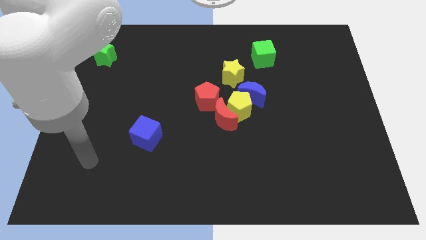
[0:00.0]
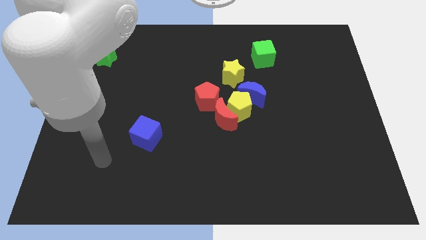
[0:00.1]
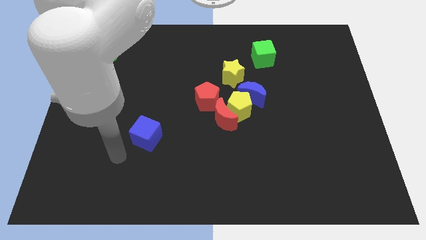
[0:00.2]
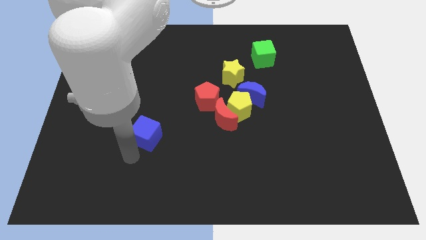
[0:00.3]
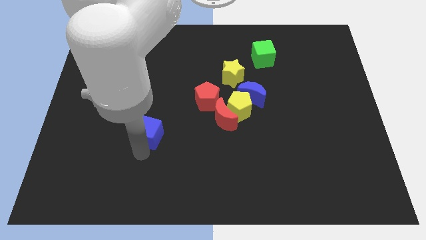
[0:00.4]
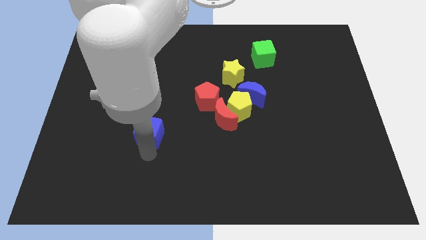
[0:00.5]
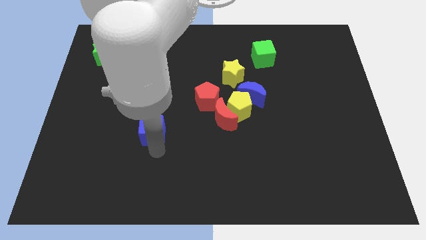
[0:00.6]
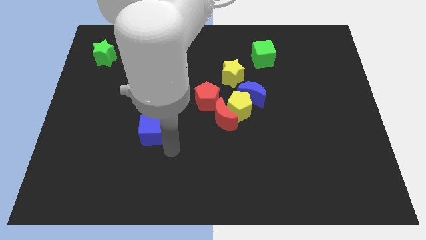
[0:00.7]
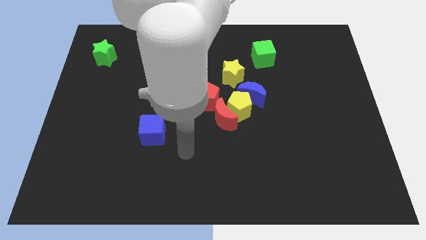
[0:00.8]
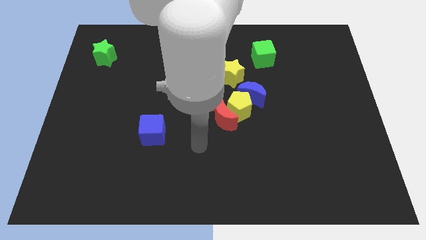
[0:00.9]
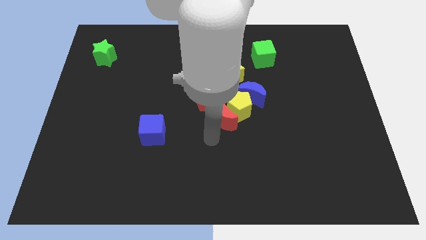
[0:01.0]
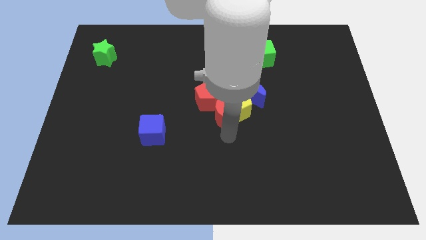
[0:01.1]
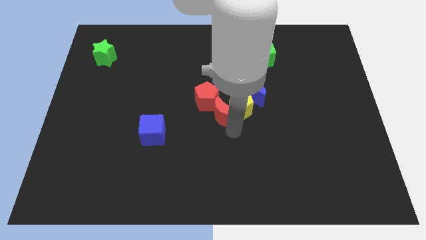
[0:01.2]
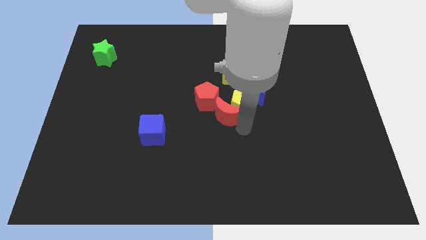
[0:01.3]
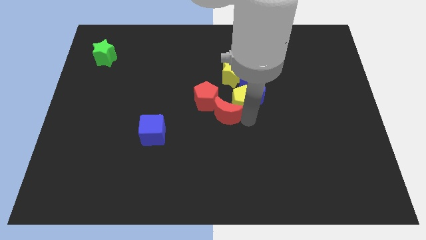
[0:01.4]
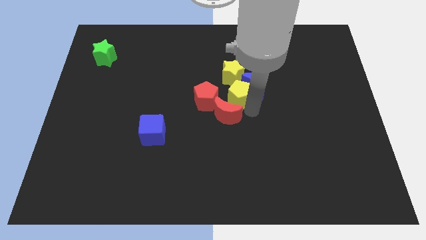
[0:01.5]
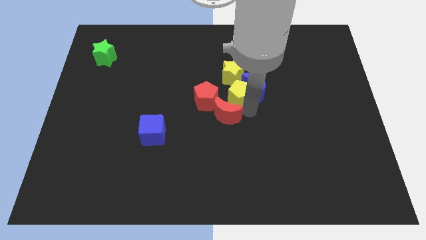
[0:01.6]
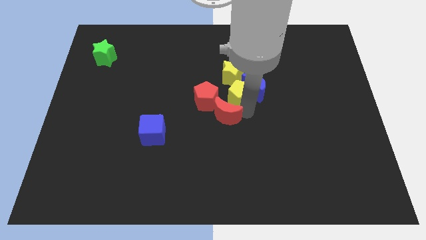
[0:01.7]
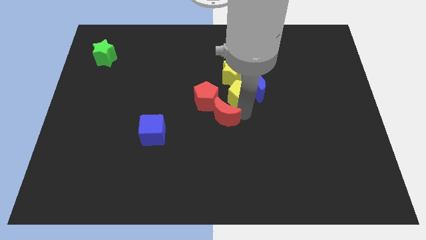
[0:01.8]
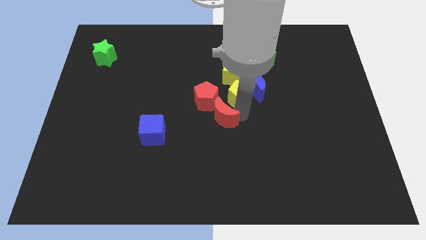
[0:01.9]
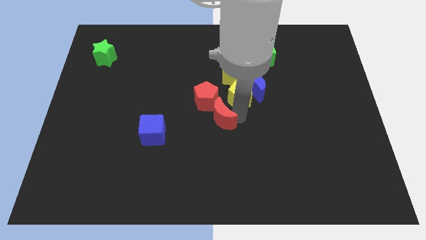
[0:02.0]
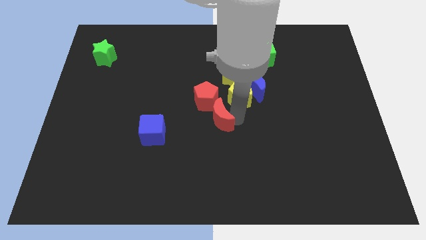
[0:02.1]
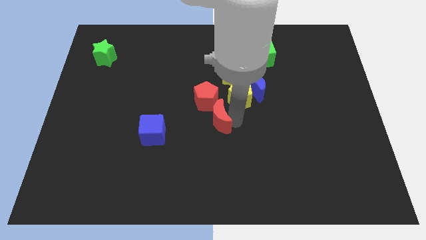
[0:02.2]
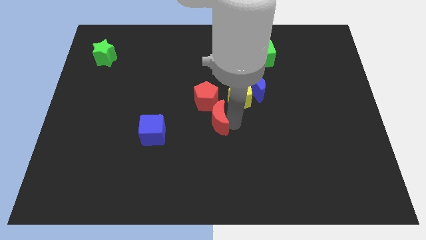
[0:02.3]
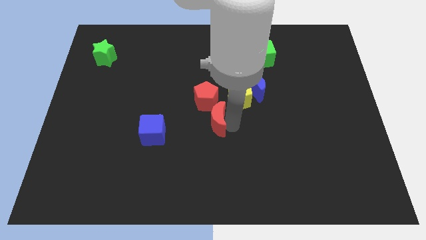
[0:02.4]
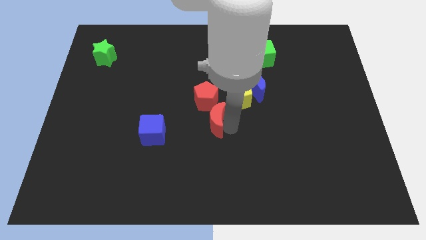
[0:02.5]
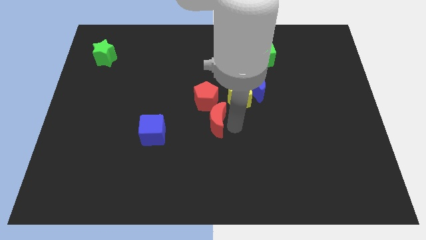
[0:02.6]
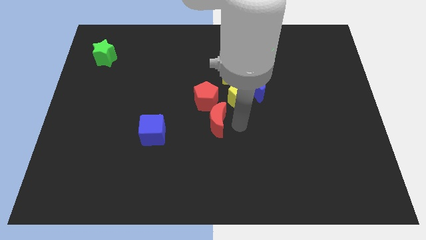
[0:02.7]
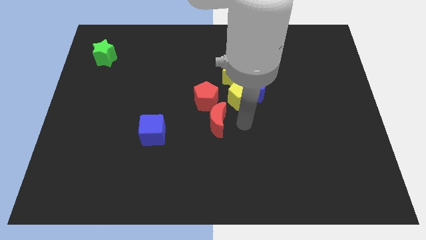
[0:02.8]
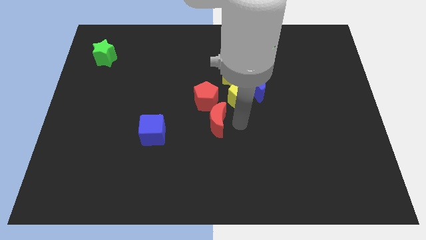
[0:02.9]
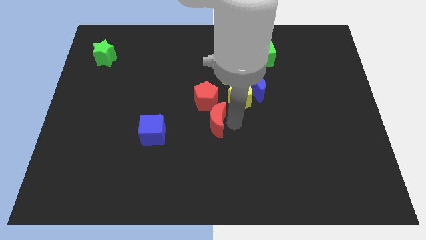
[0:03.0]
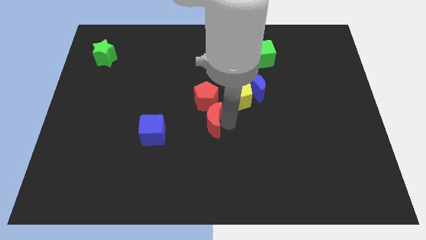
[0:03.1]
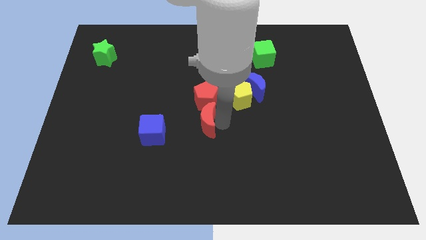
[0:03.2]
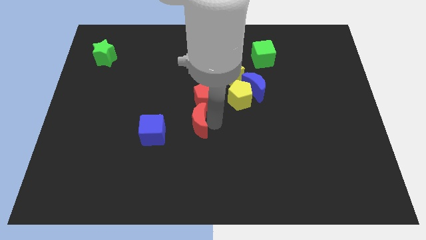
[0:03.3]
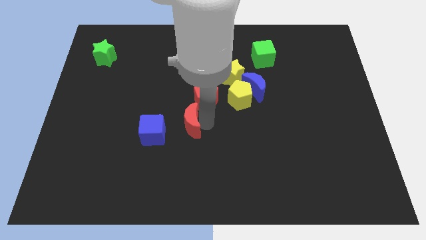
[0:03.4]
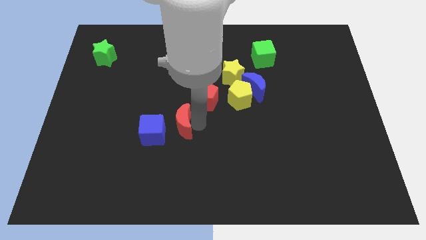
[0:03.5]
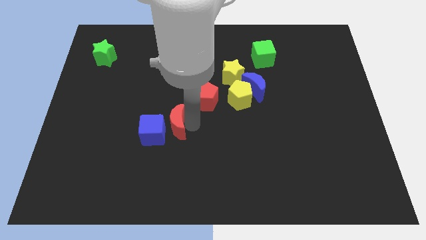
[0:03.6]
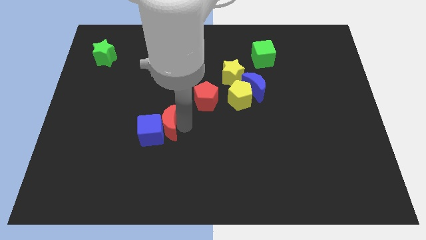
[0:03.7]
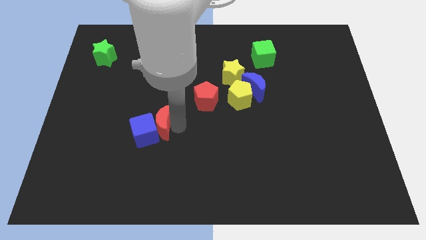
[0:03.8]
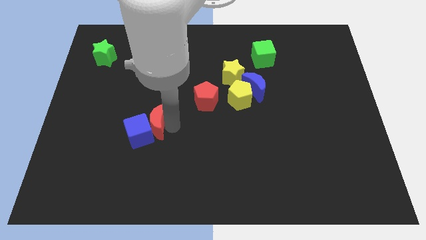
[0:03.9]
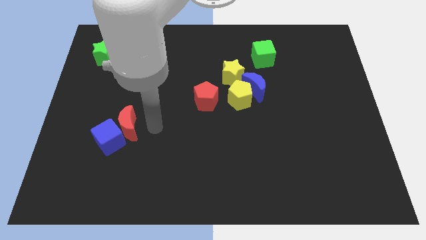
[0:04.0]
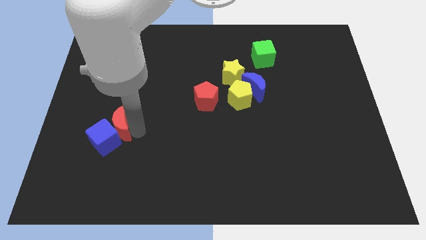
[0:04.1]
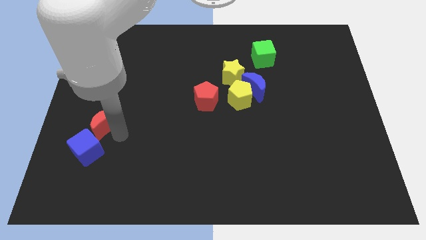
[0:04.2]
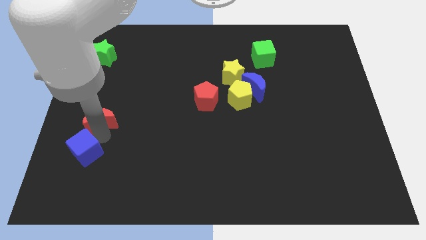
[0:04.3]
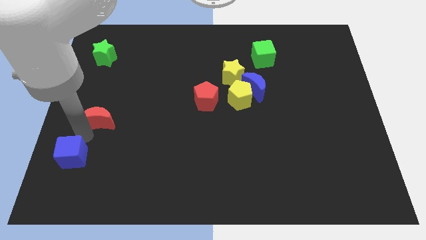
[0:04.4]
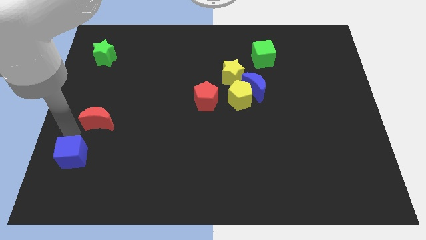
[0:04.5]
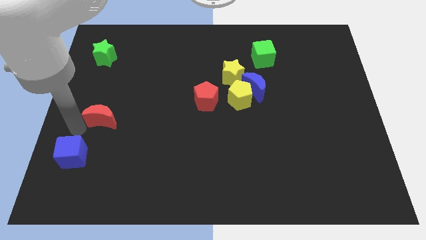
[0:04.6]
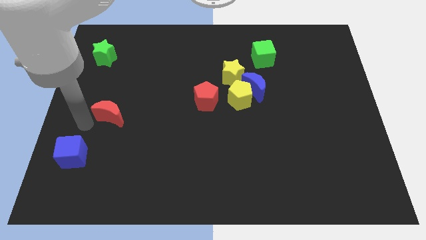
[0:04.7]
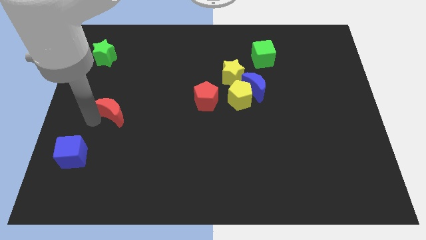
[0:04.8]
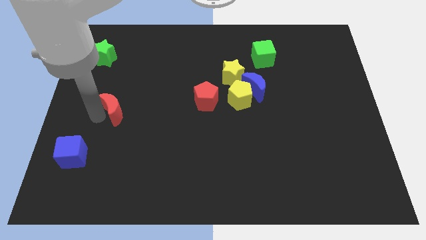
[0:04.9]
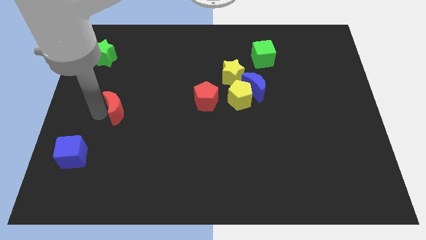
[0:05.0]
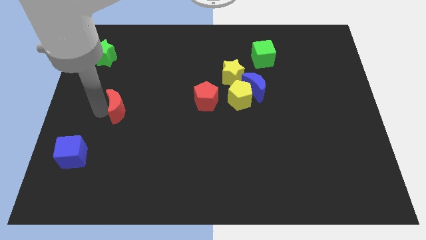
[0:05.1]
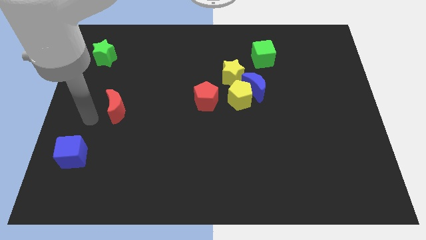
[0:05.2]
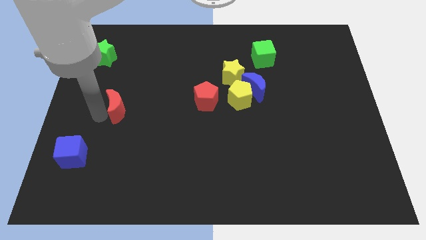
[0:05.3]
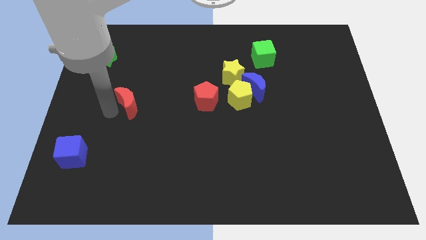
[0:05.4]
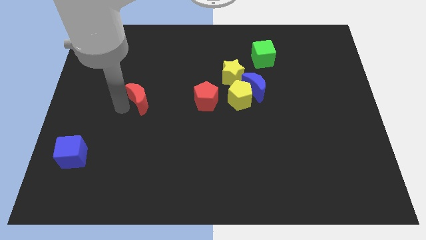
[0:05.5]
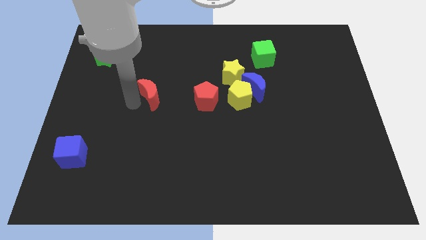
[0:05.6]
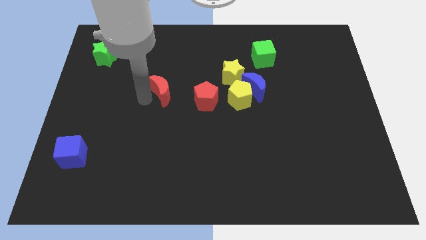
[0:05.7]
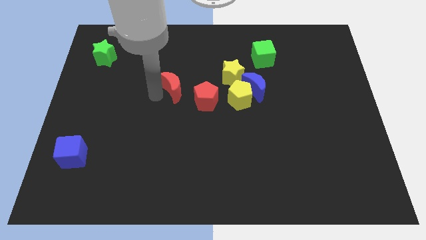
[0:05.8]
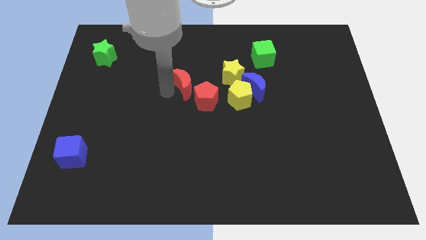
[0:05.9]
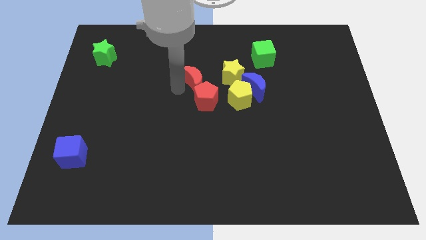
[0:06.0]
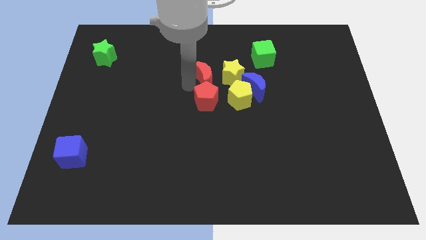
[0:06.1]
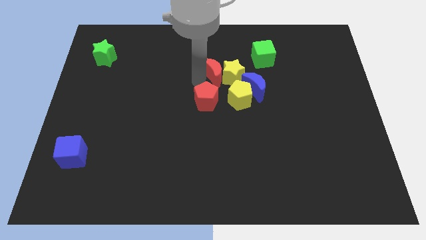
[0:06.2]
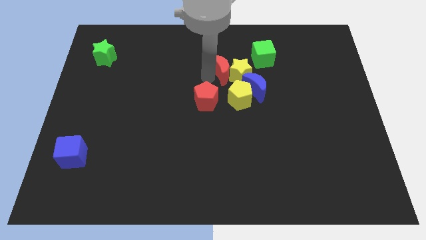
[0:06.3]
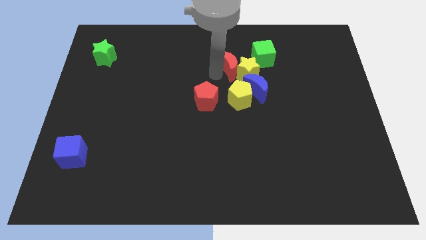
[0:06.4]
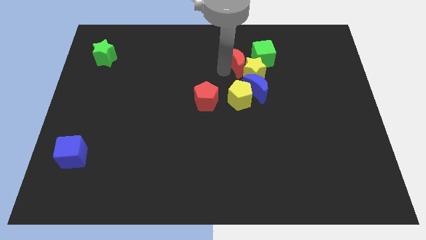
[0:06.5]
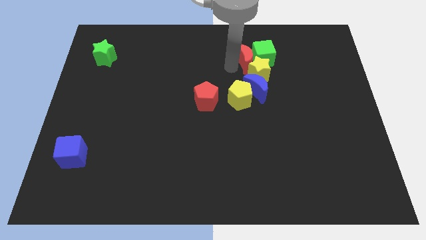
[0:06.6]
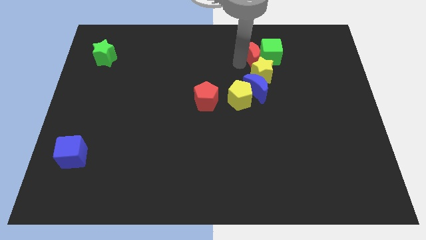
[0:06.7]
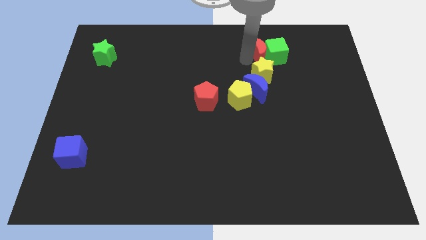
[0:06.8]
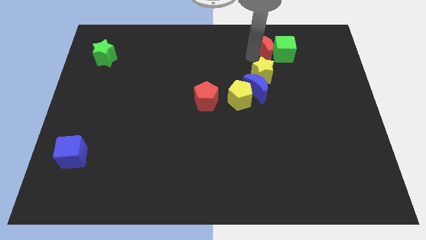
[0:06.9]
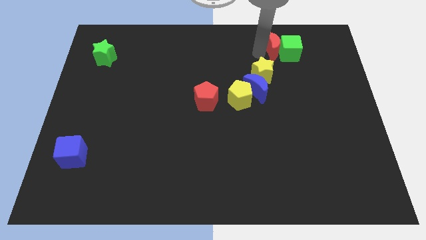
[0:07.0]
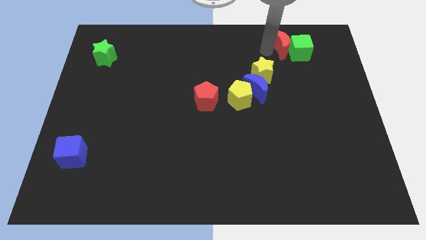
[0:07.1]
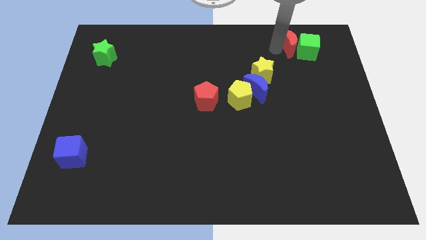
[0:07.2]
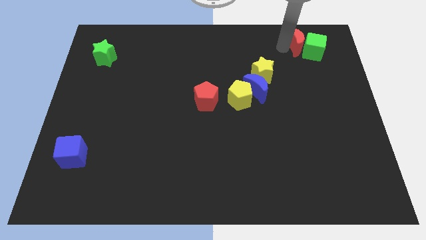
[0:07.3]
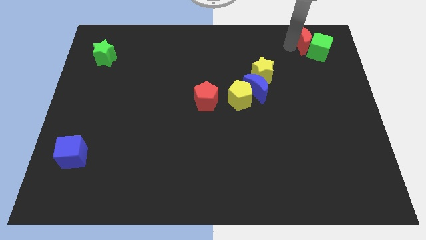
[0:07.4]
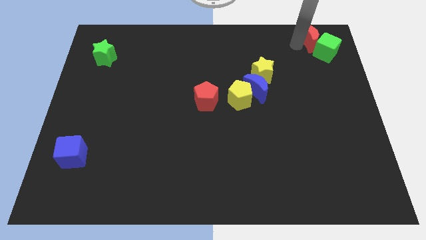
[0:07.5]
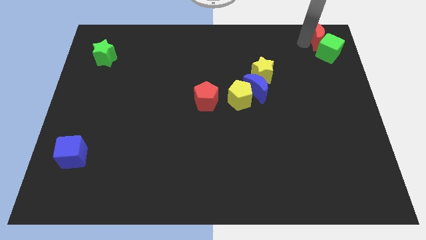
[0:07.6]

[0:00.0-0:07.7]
move the red moon to the upper right corner
